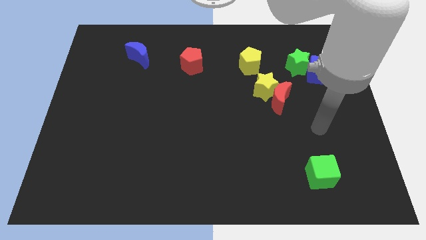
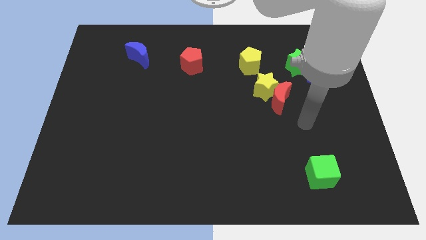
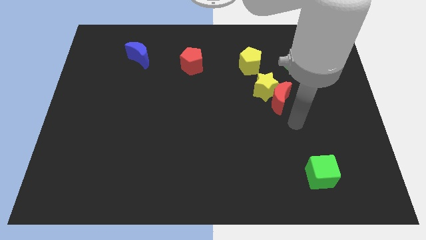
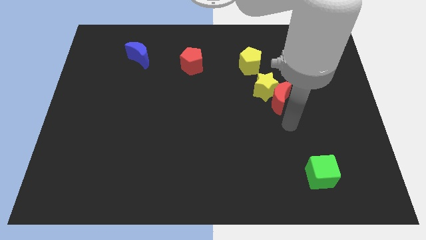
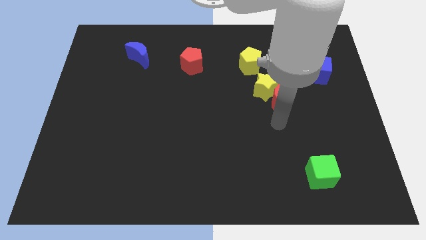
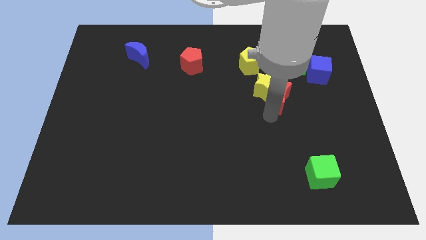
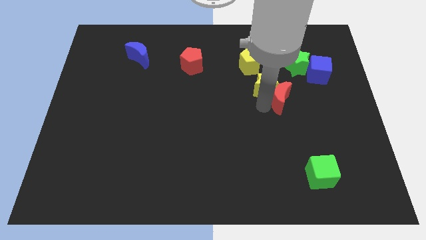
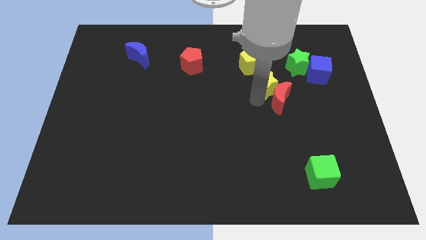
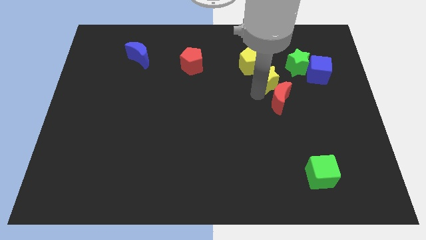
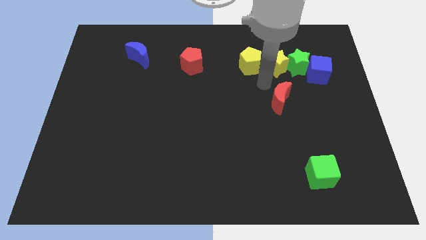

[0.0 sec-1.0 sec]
separate the red moon from the yellow star

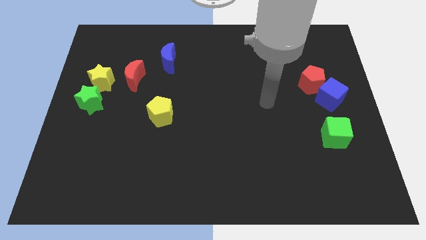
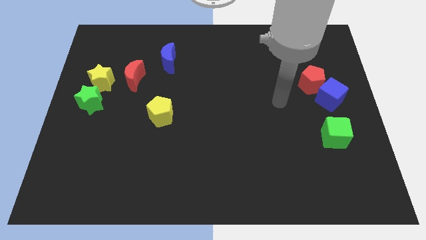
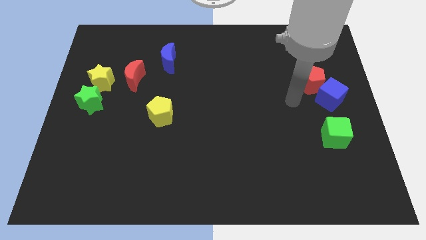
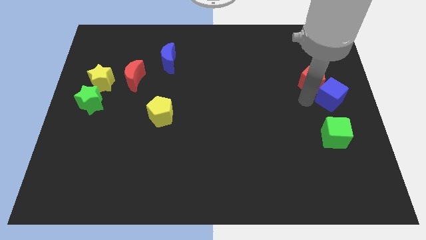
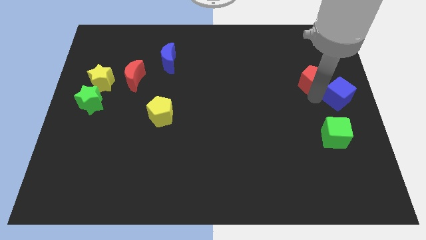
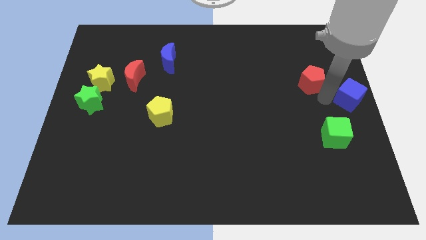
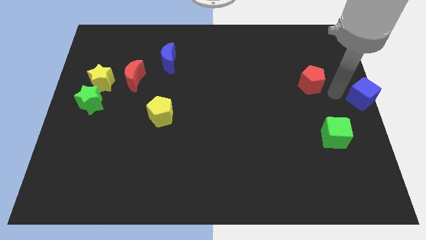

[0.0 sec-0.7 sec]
pull the red pentagon apart from the blue cube

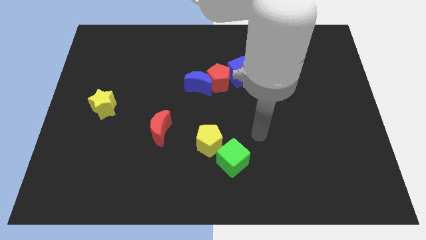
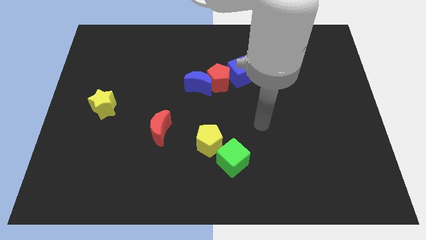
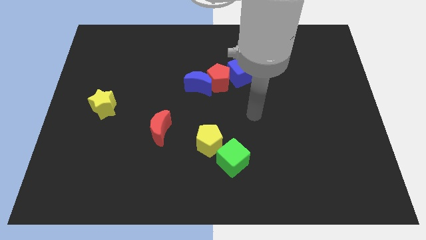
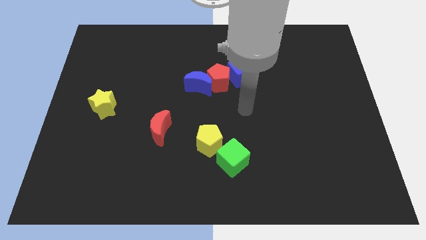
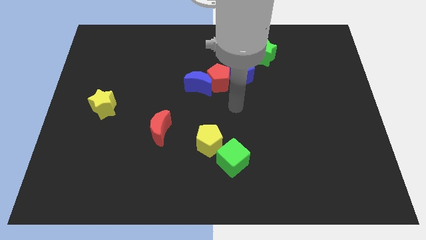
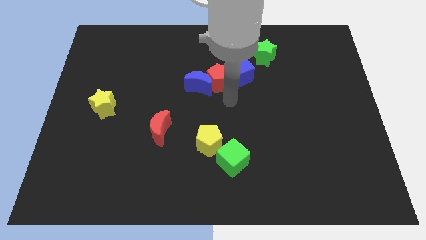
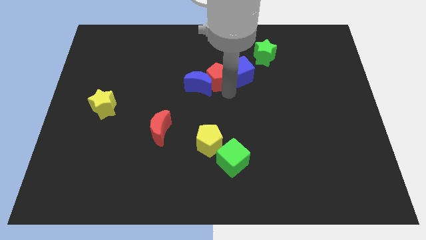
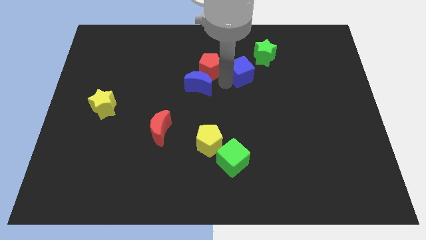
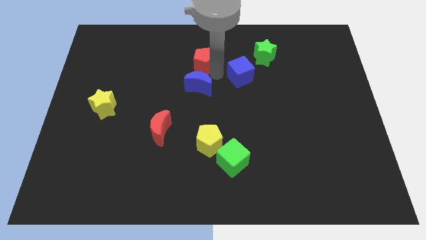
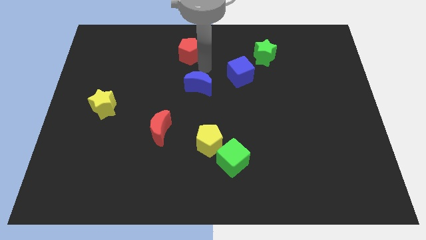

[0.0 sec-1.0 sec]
pull the blue moon apart from the red pentagon

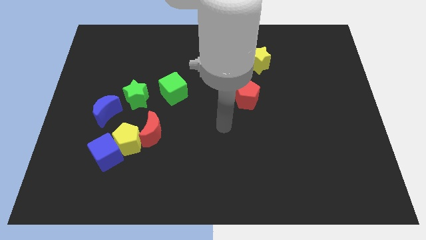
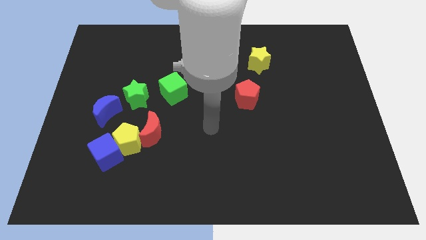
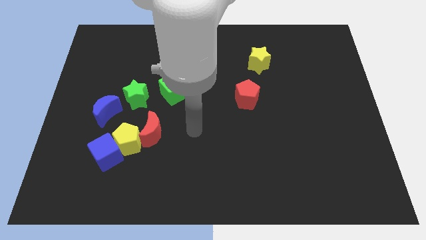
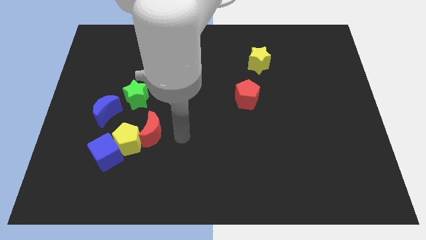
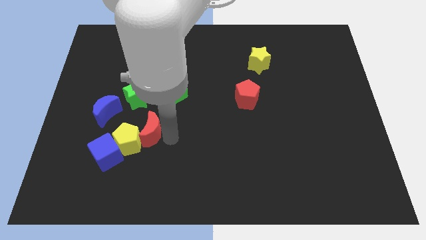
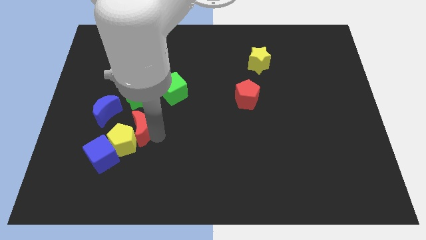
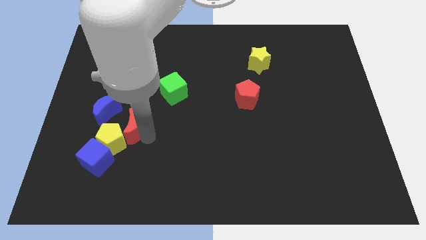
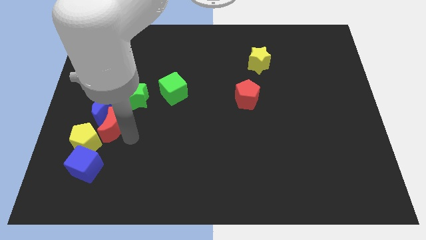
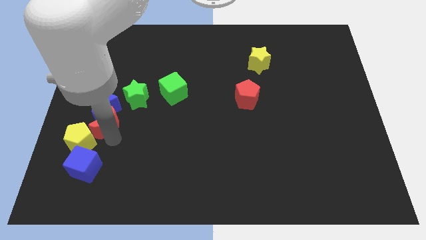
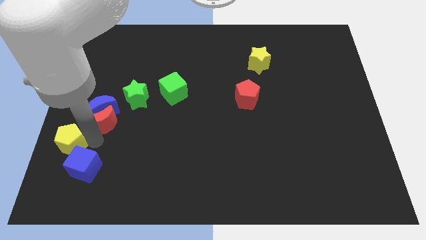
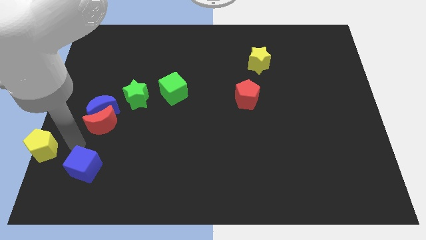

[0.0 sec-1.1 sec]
separate the blue cube from the yellow pentagon

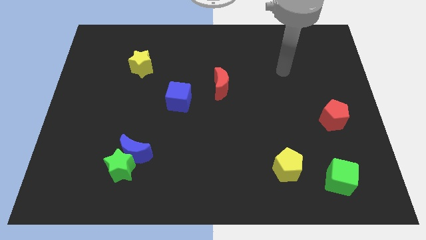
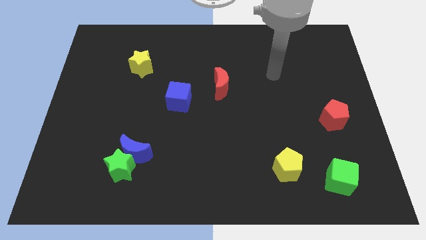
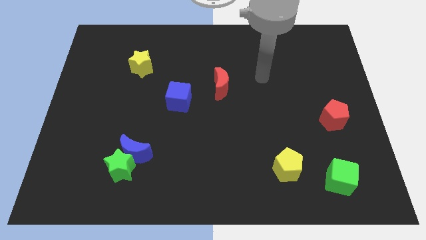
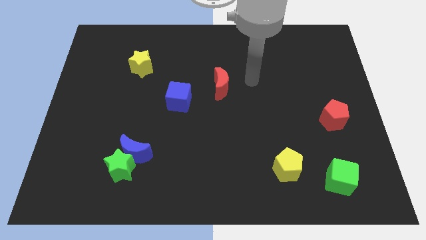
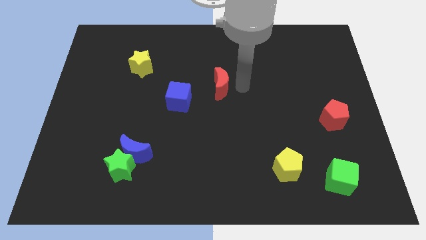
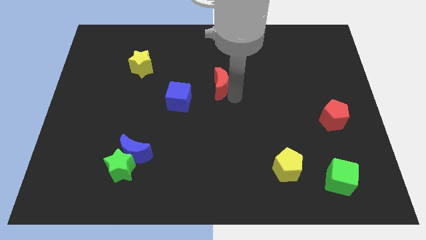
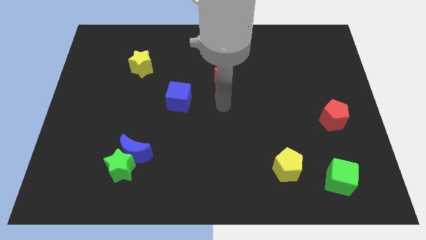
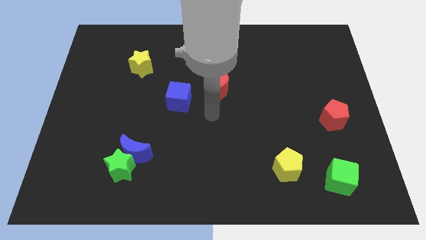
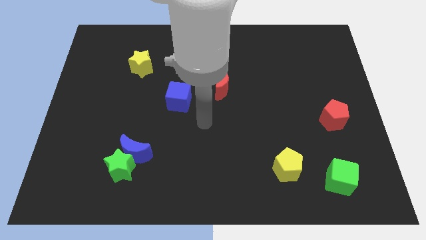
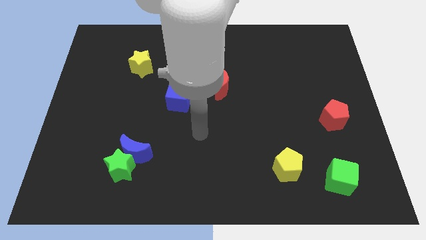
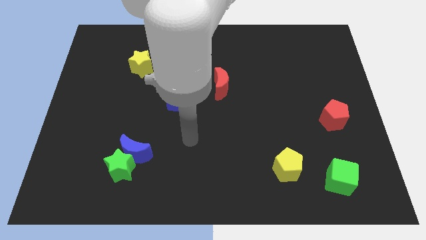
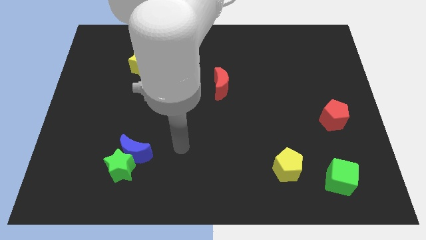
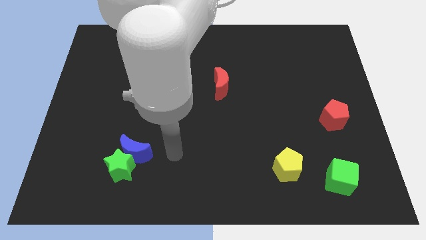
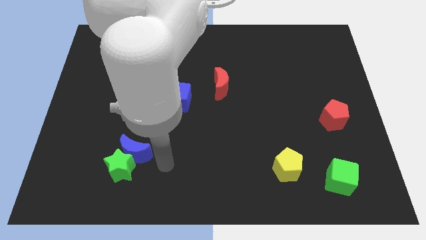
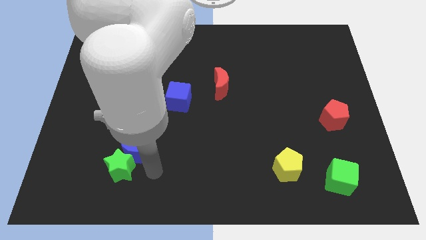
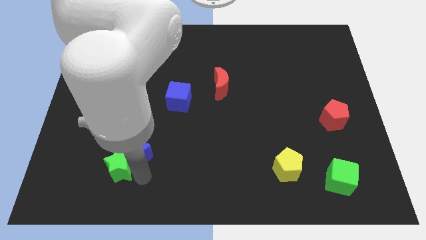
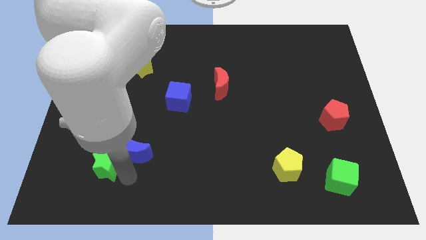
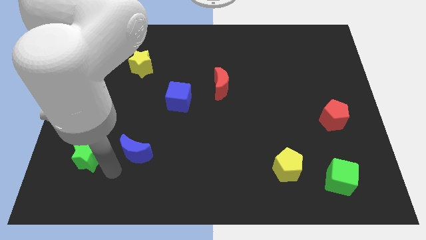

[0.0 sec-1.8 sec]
separate the blue moon from the green star

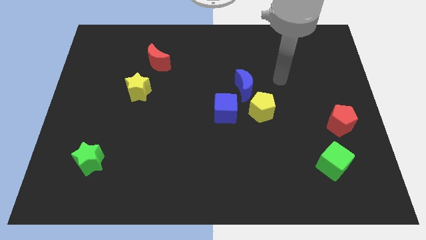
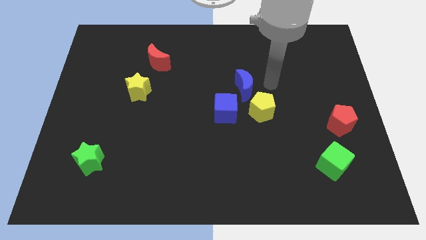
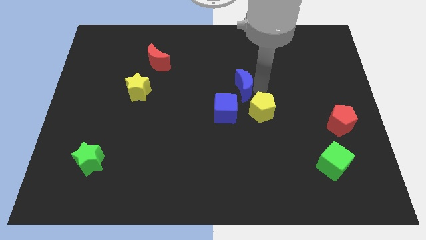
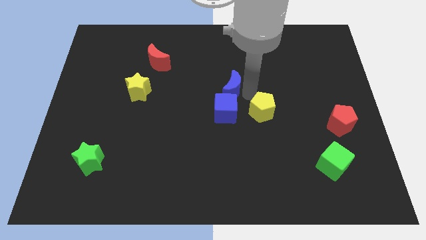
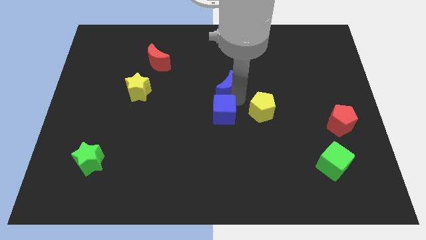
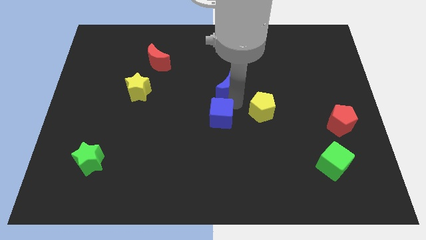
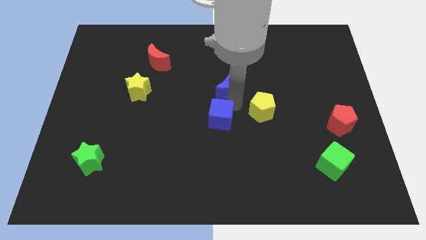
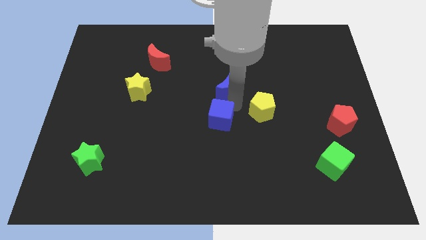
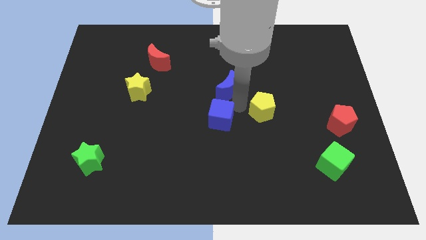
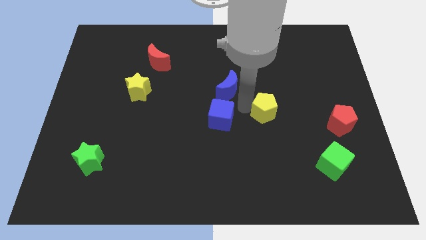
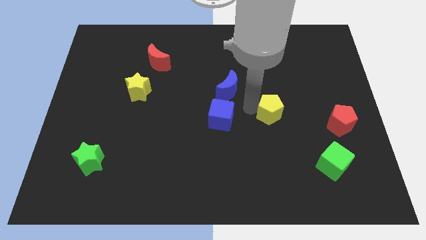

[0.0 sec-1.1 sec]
move the yellow pentagon away from the blue moon and blue cube

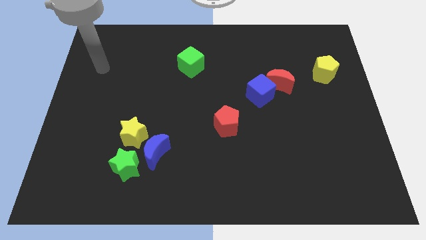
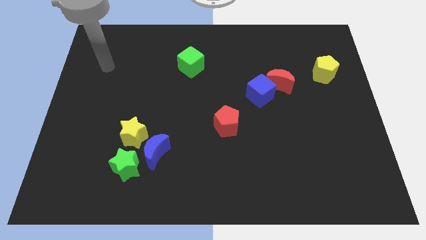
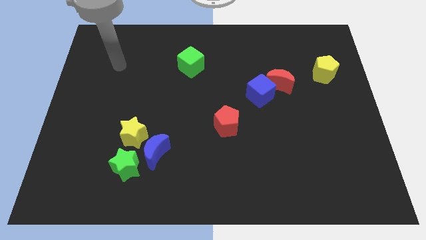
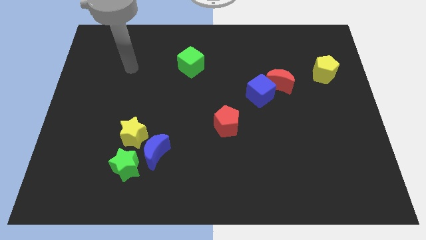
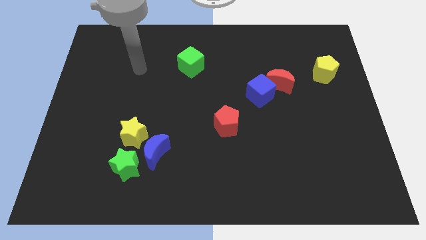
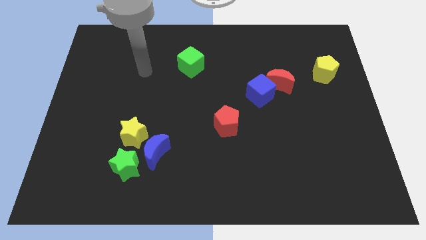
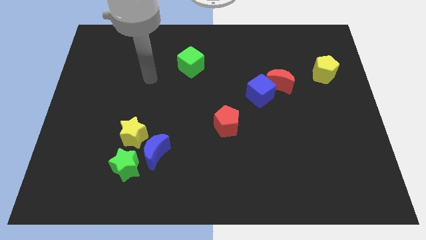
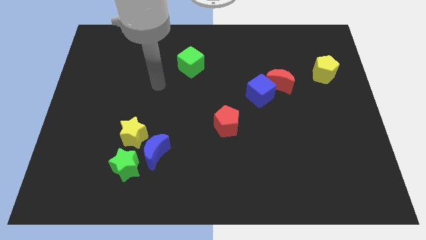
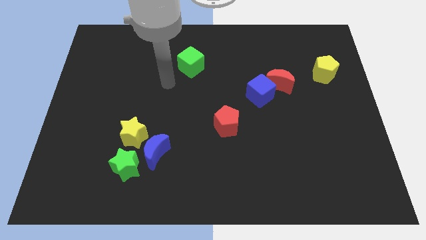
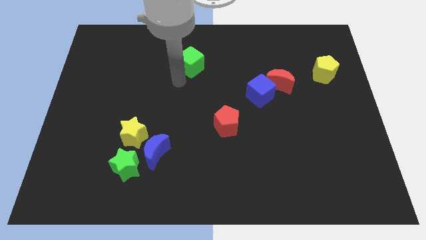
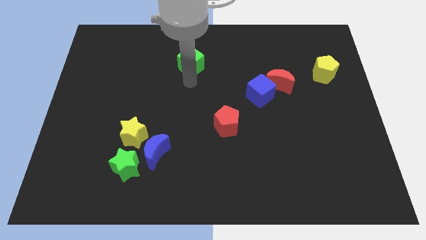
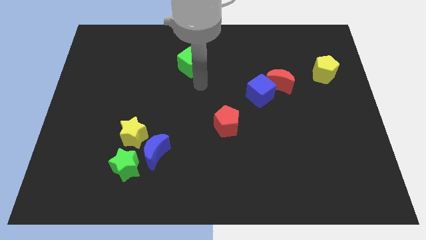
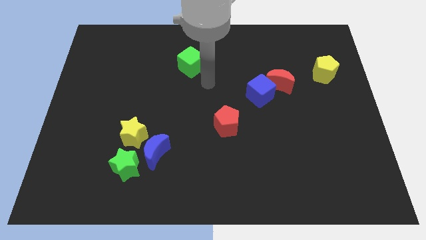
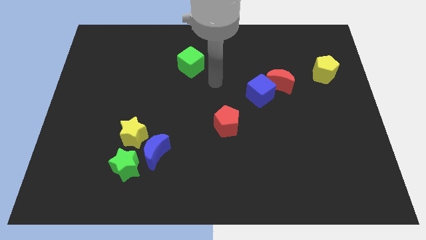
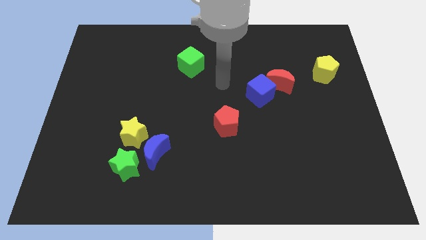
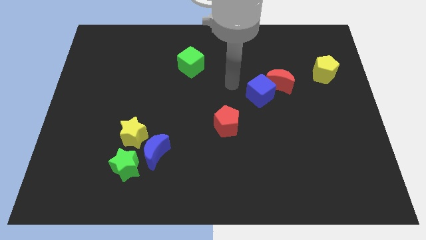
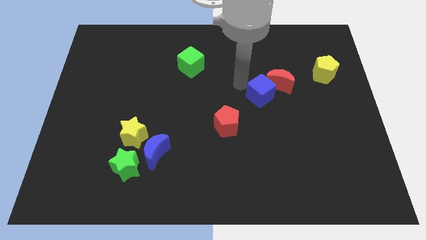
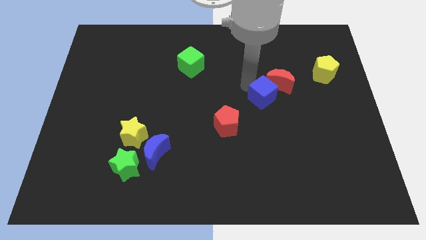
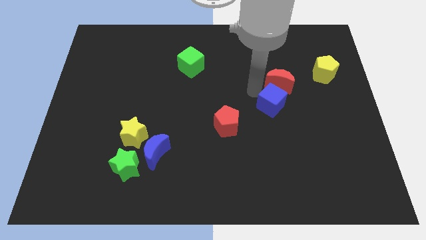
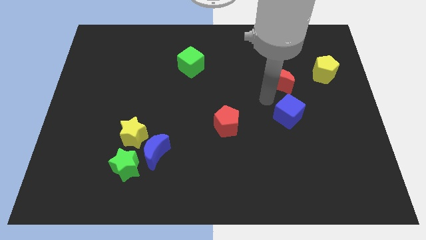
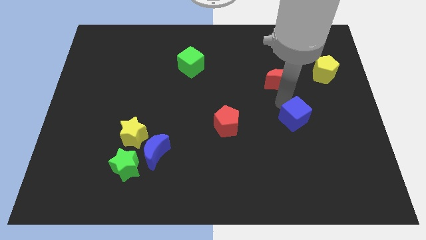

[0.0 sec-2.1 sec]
separate the red moon from the blue cube

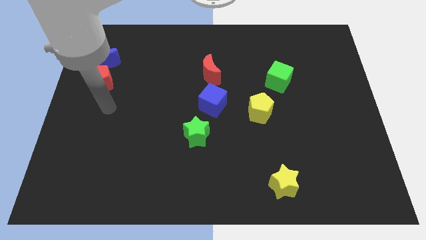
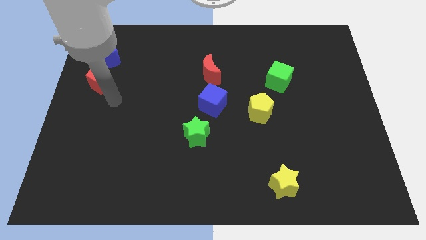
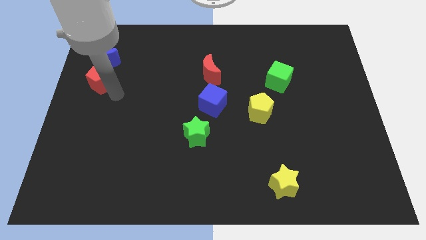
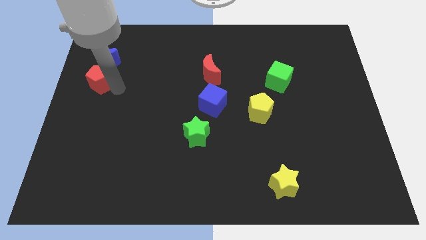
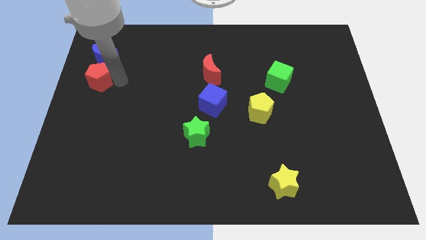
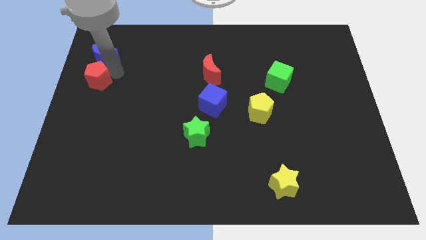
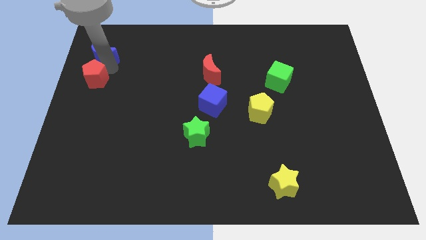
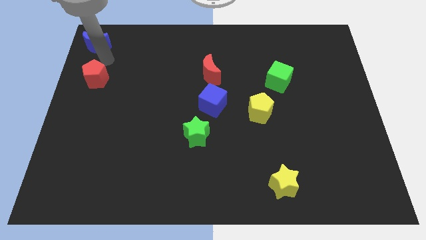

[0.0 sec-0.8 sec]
move the red pentagon away from the blue moon
